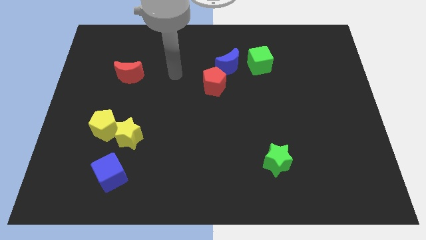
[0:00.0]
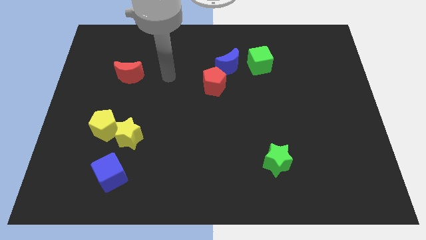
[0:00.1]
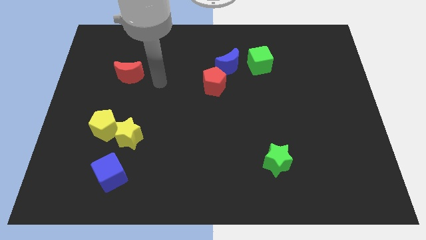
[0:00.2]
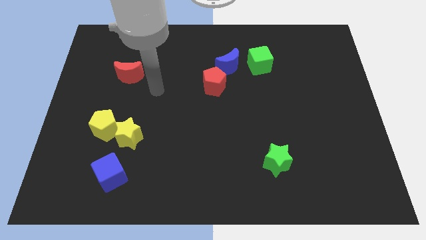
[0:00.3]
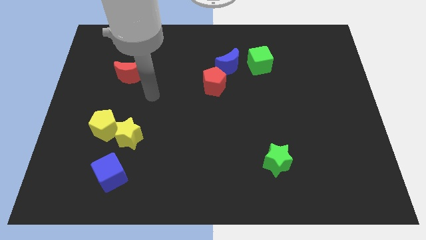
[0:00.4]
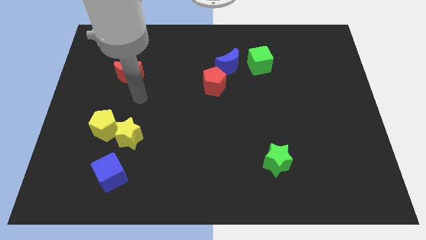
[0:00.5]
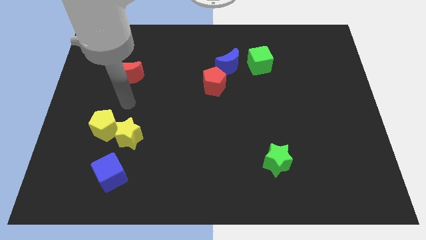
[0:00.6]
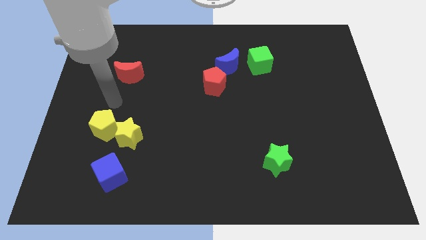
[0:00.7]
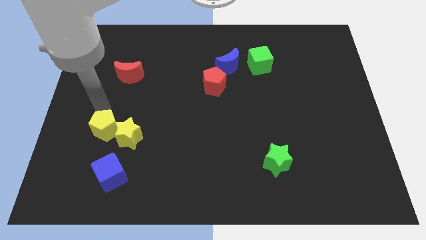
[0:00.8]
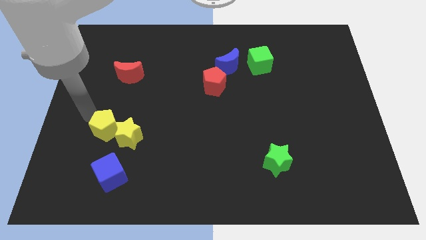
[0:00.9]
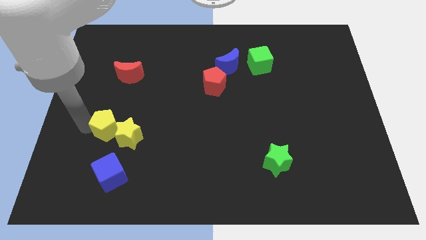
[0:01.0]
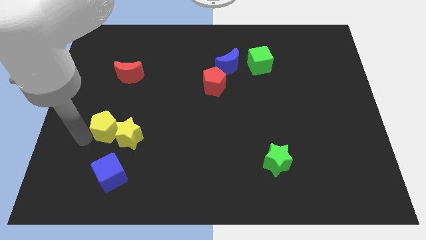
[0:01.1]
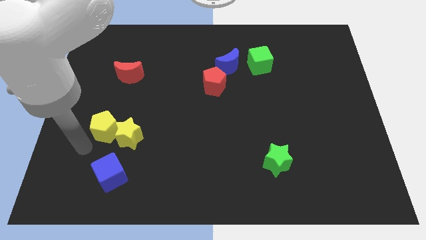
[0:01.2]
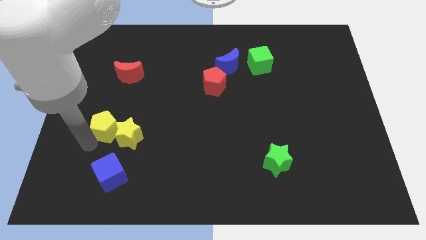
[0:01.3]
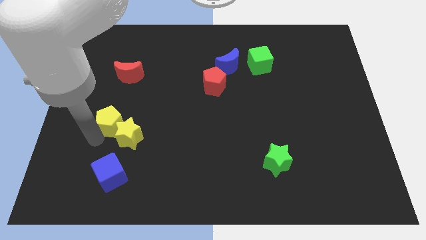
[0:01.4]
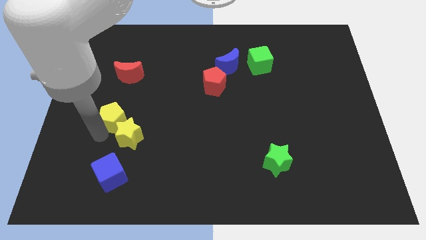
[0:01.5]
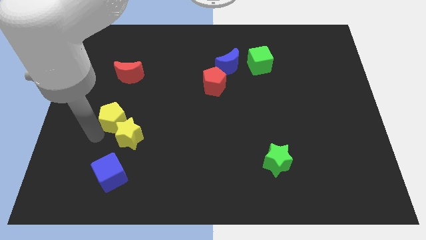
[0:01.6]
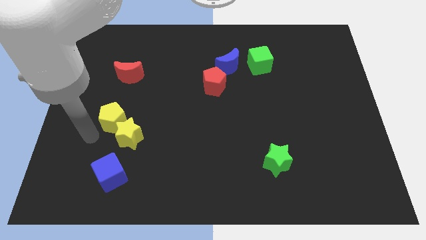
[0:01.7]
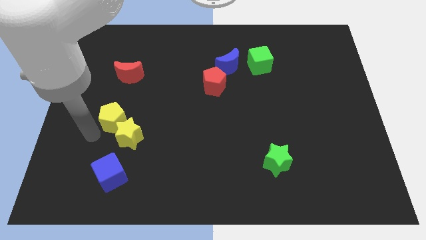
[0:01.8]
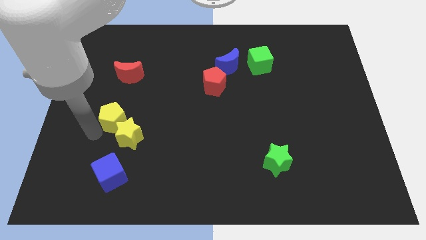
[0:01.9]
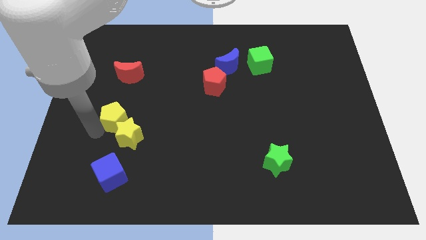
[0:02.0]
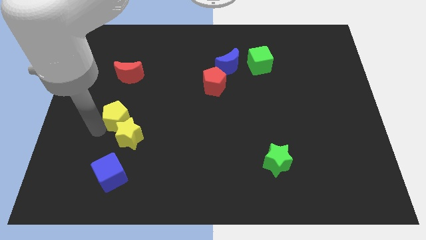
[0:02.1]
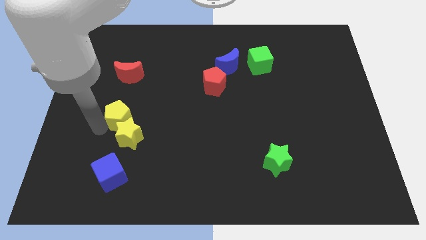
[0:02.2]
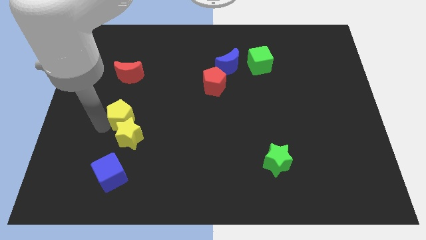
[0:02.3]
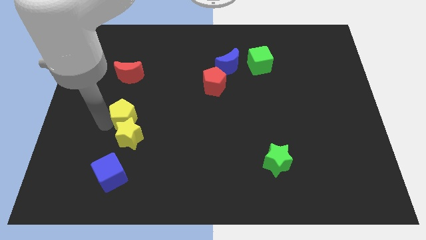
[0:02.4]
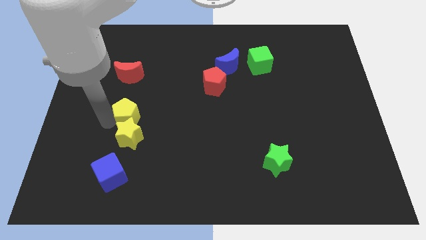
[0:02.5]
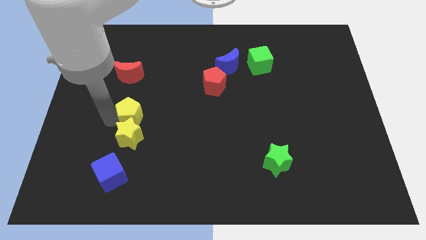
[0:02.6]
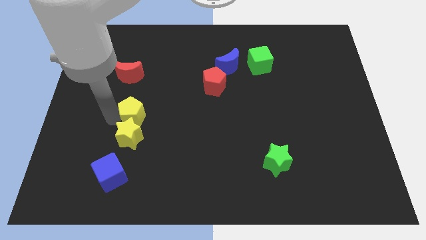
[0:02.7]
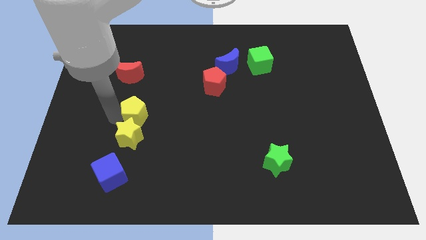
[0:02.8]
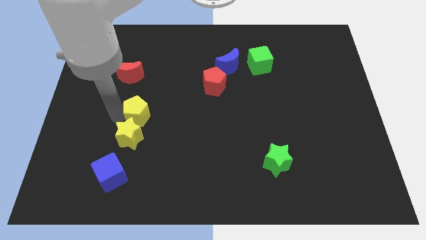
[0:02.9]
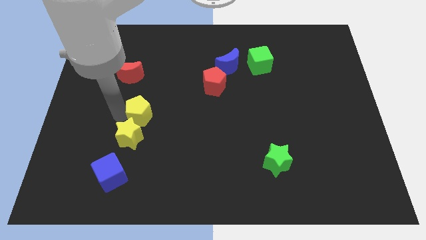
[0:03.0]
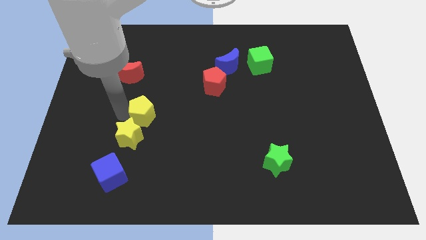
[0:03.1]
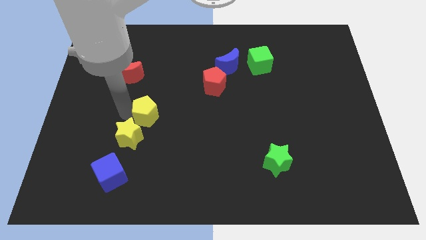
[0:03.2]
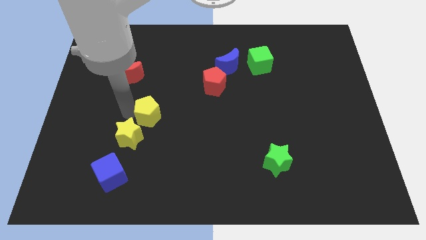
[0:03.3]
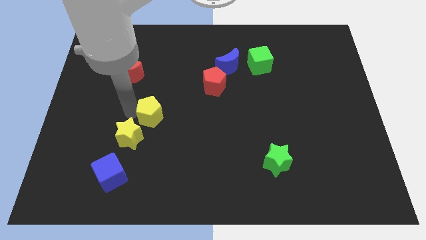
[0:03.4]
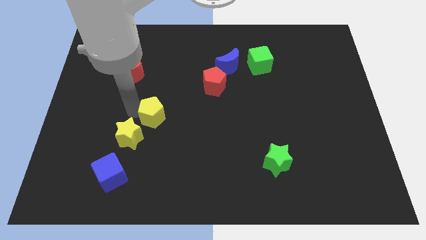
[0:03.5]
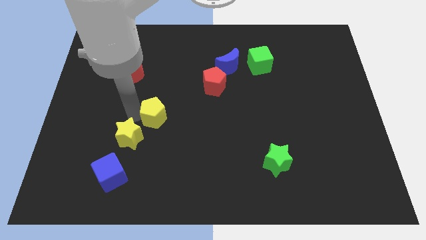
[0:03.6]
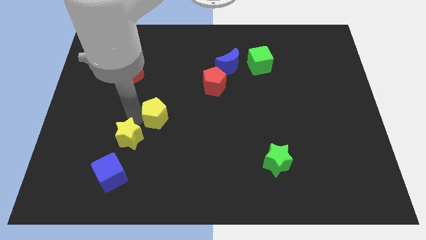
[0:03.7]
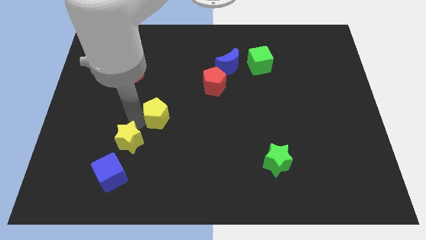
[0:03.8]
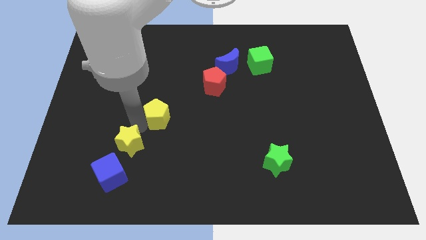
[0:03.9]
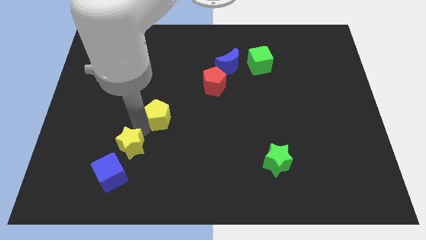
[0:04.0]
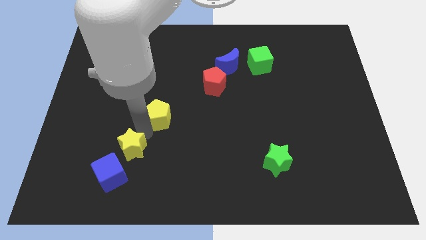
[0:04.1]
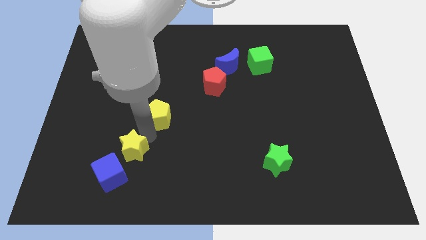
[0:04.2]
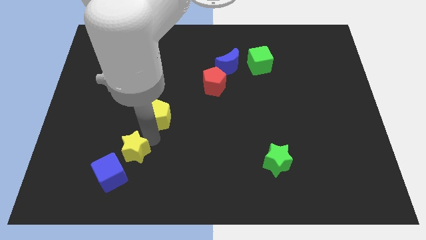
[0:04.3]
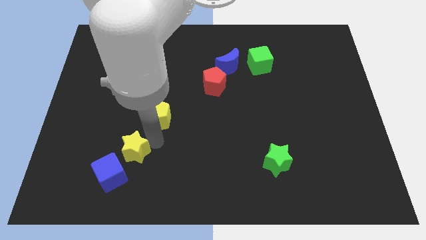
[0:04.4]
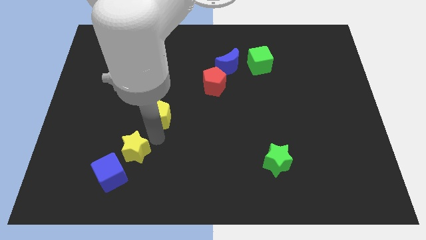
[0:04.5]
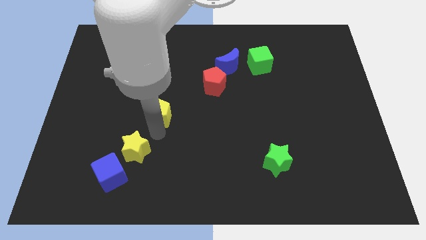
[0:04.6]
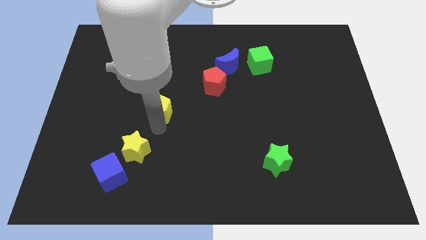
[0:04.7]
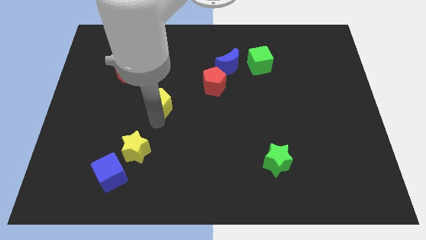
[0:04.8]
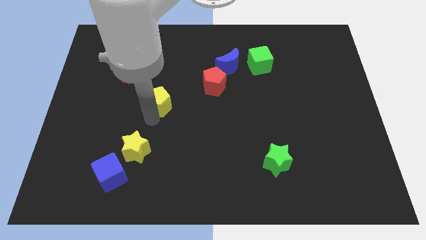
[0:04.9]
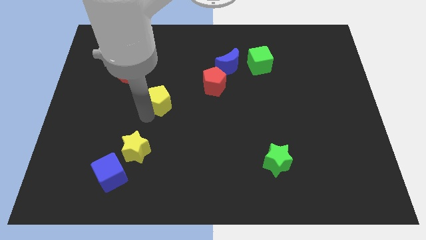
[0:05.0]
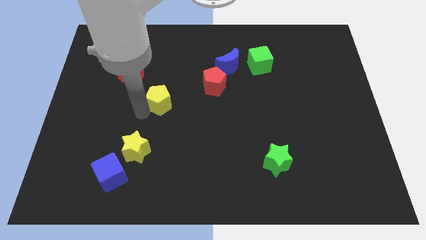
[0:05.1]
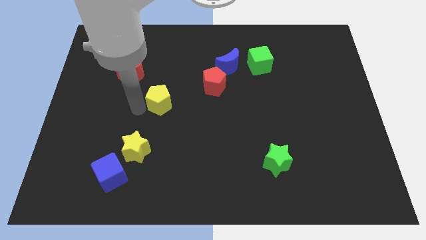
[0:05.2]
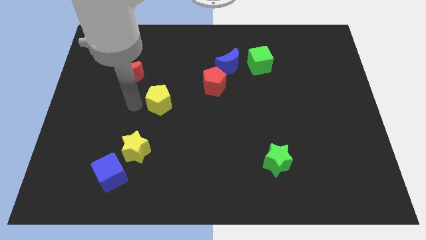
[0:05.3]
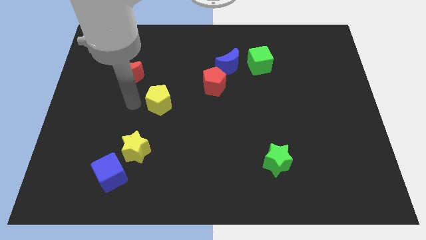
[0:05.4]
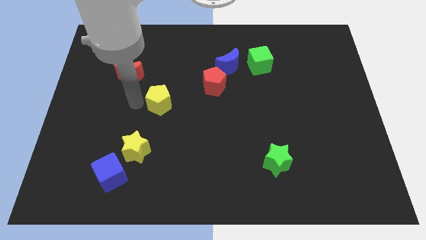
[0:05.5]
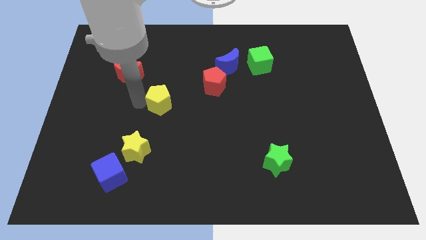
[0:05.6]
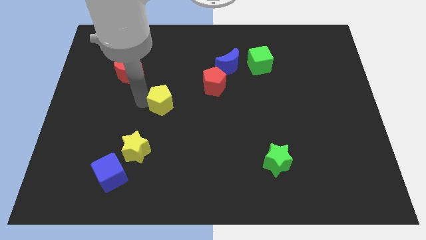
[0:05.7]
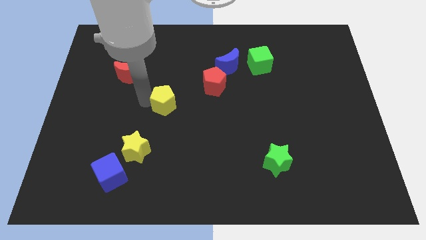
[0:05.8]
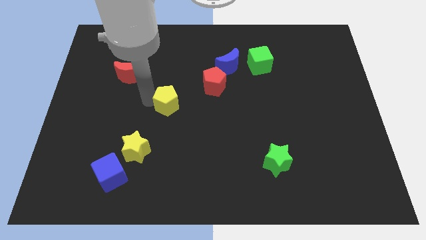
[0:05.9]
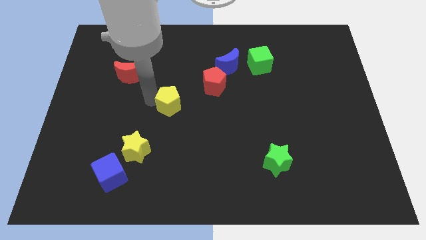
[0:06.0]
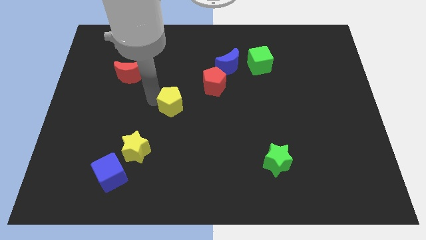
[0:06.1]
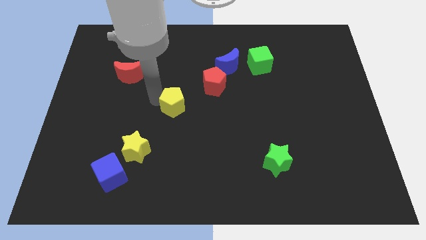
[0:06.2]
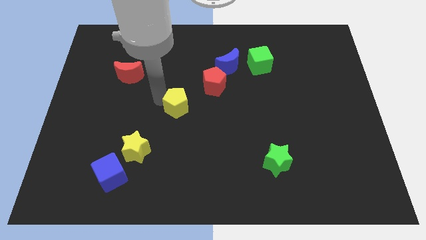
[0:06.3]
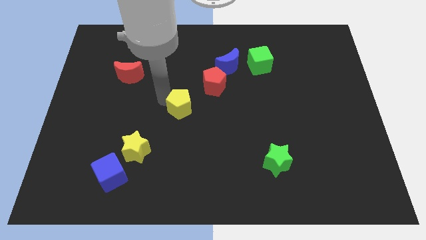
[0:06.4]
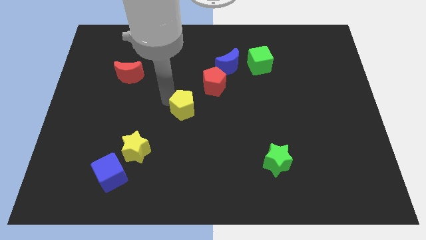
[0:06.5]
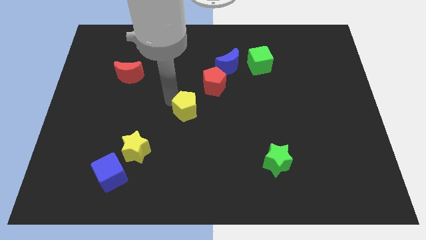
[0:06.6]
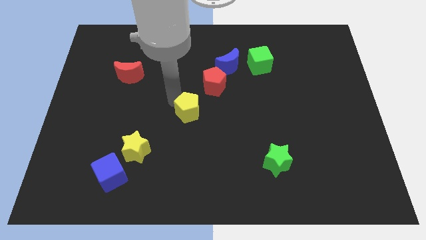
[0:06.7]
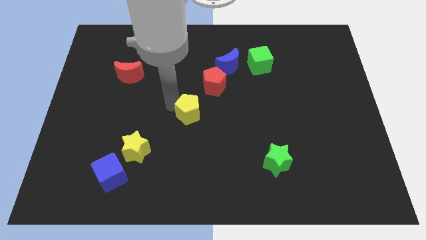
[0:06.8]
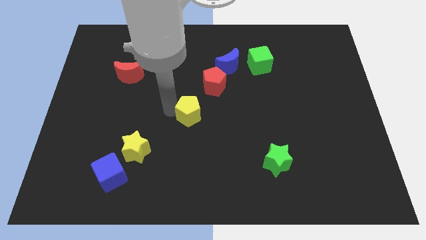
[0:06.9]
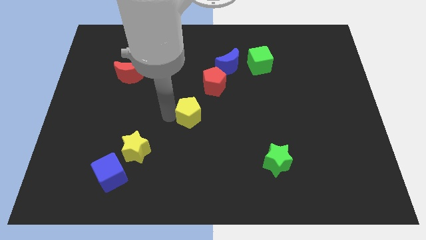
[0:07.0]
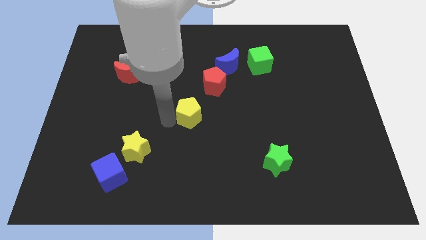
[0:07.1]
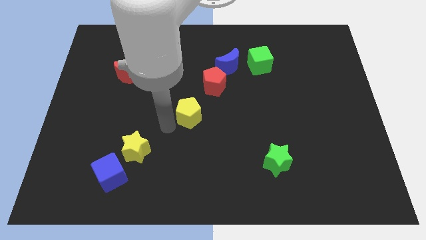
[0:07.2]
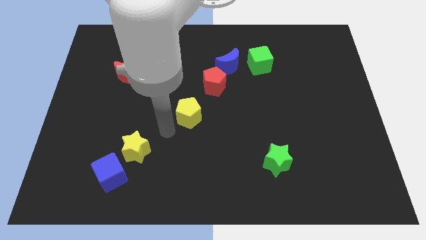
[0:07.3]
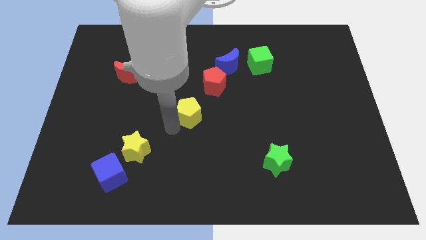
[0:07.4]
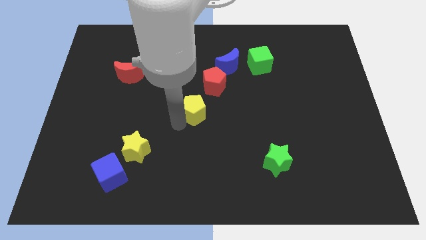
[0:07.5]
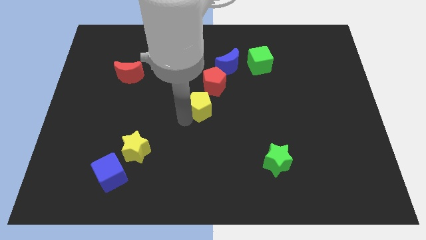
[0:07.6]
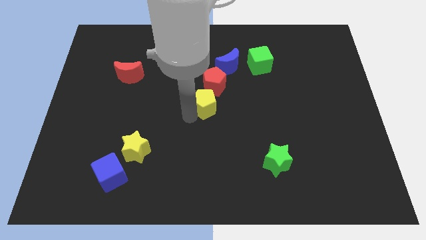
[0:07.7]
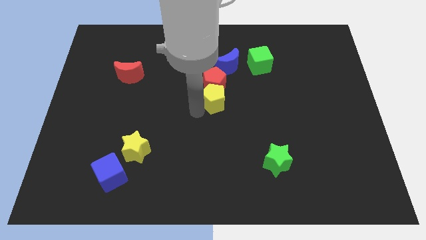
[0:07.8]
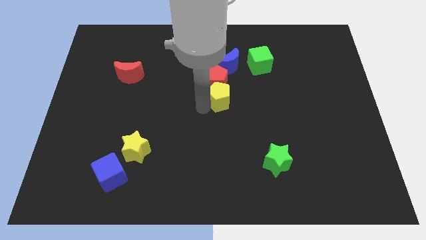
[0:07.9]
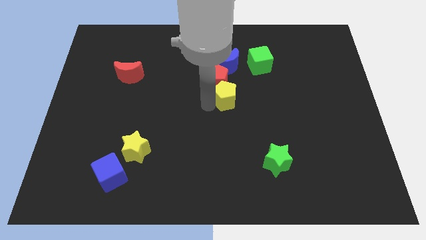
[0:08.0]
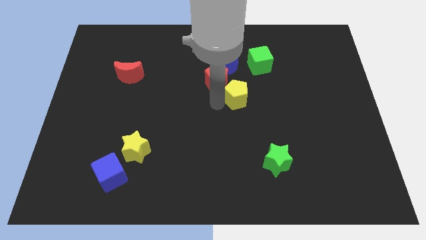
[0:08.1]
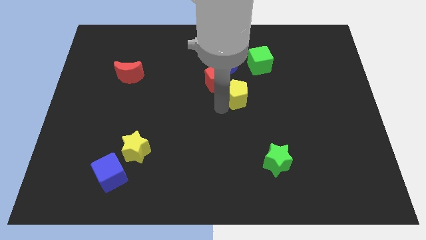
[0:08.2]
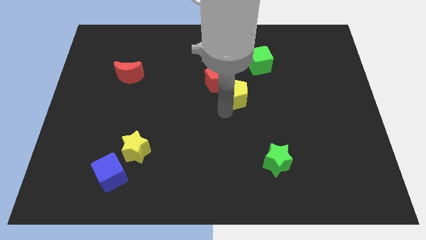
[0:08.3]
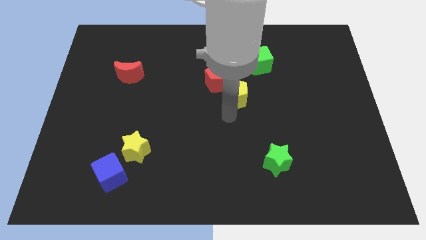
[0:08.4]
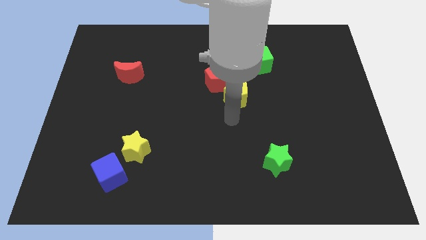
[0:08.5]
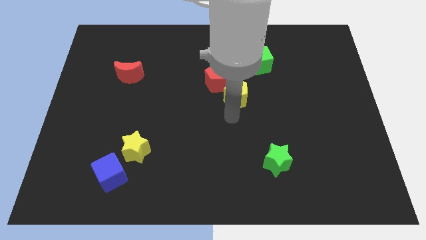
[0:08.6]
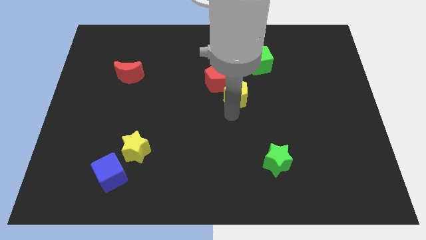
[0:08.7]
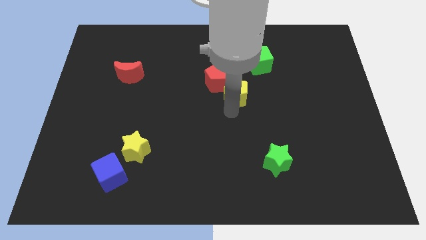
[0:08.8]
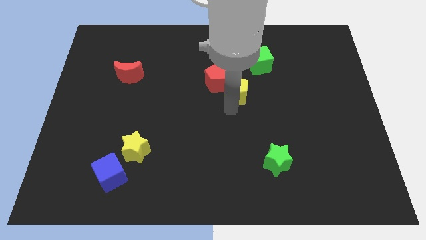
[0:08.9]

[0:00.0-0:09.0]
put the yellow pentagon to the bottom left of the green cube
